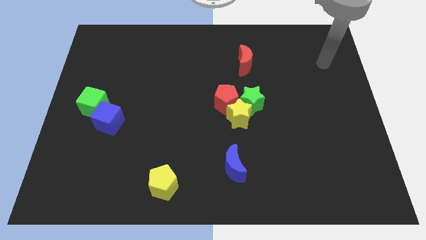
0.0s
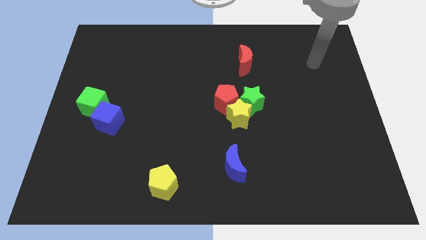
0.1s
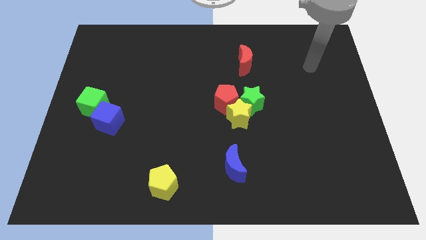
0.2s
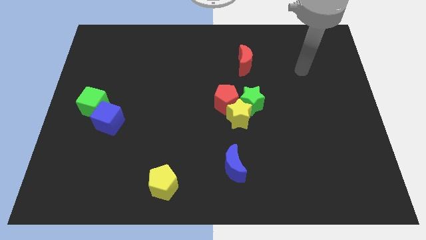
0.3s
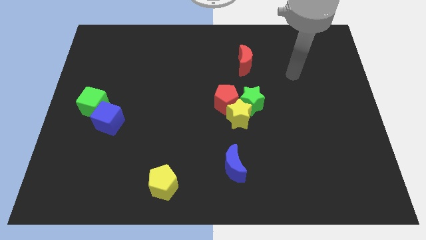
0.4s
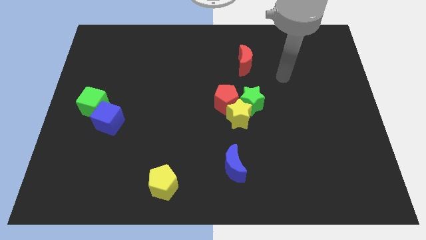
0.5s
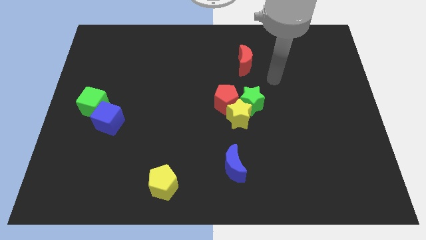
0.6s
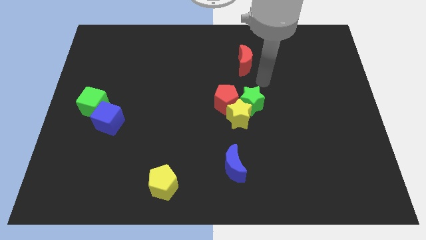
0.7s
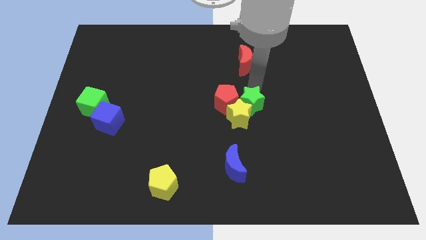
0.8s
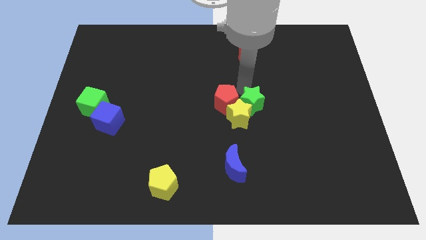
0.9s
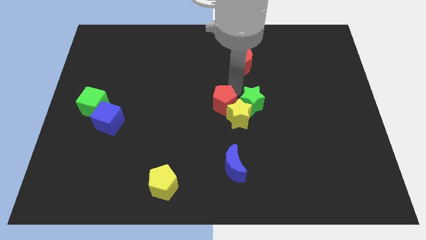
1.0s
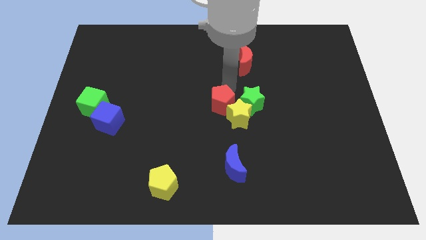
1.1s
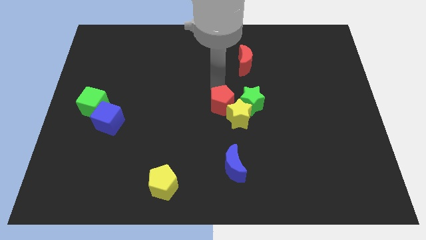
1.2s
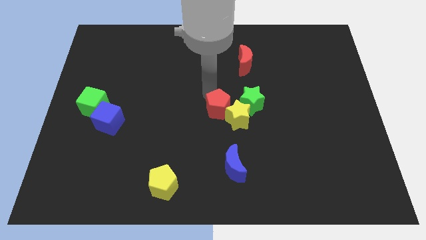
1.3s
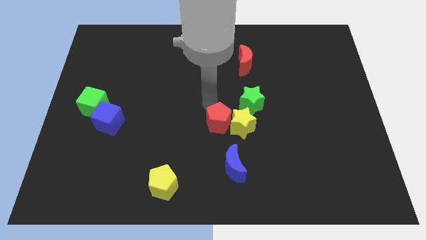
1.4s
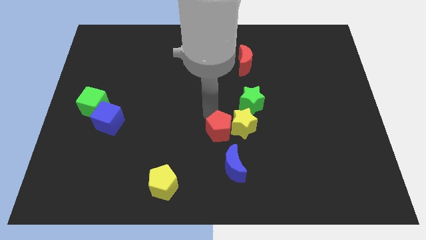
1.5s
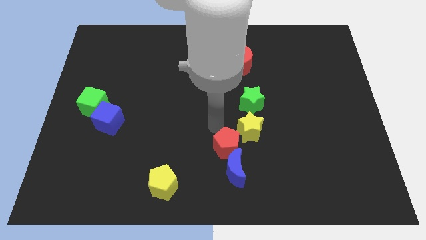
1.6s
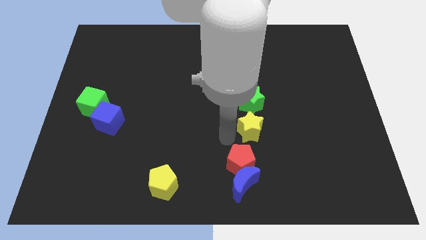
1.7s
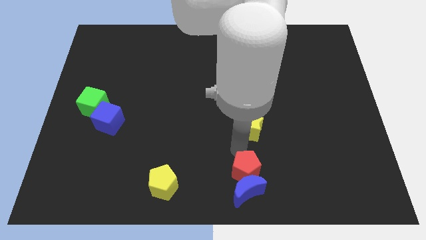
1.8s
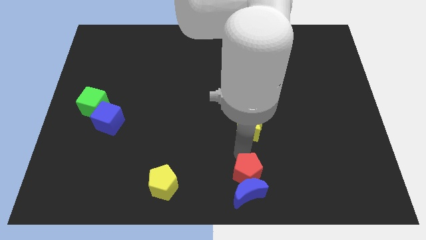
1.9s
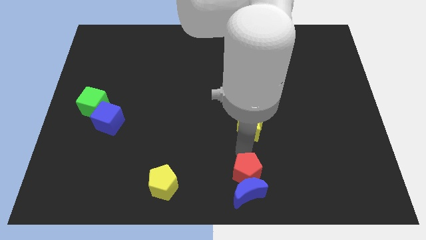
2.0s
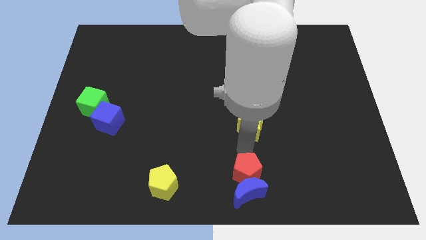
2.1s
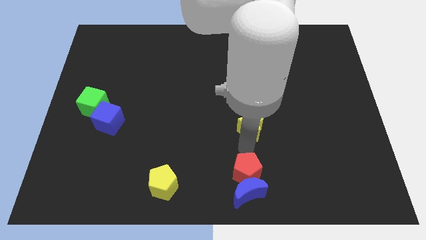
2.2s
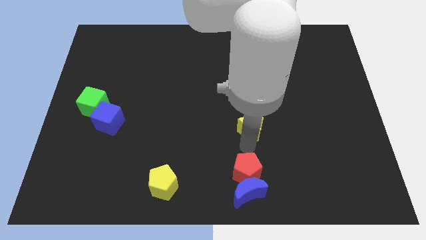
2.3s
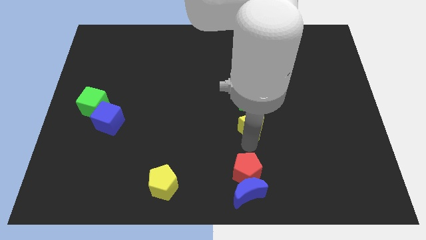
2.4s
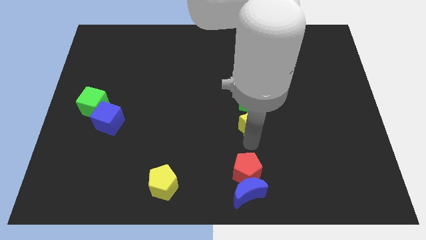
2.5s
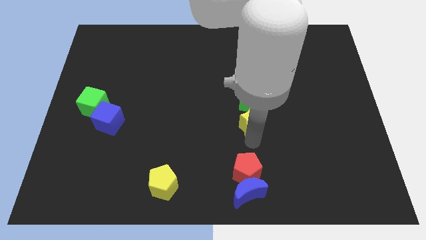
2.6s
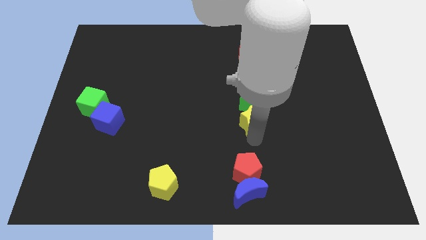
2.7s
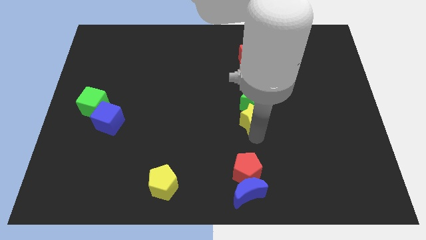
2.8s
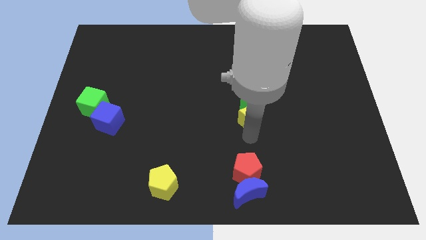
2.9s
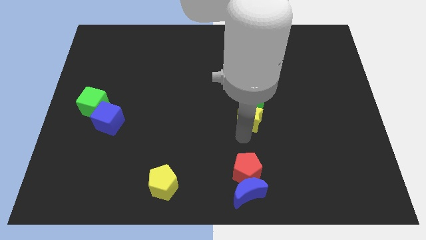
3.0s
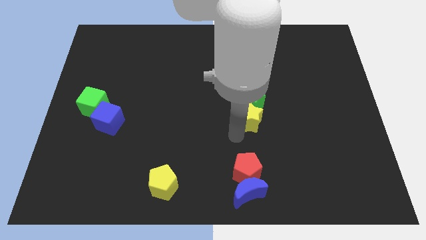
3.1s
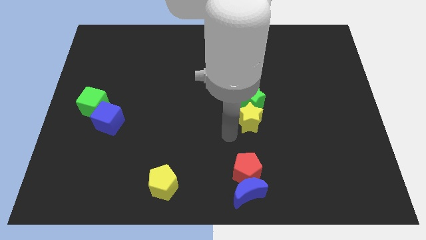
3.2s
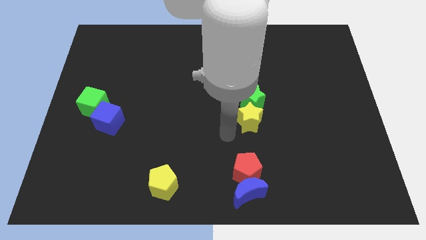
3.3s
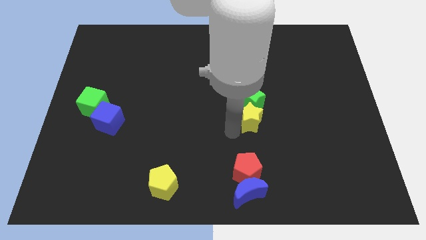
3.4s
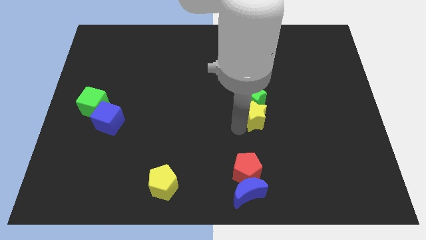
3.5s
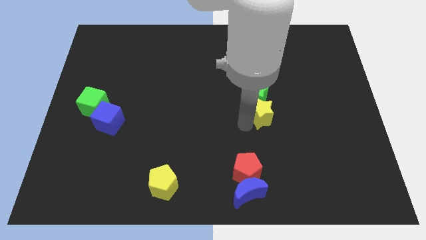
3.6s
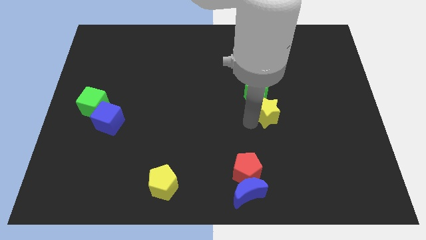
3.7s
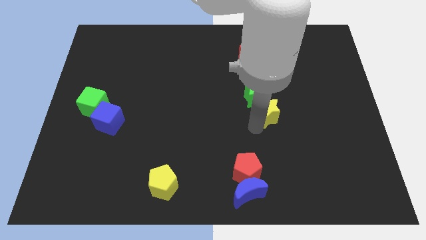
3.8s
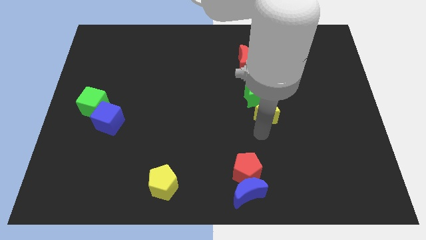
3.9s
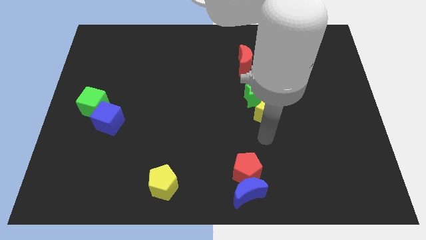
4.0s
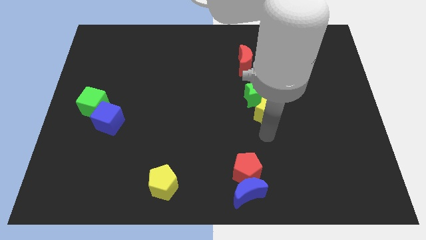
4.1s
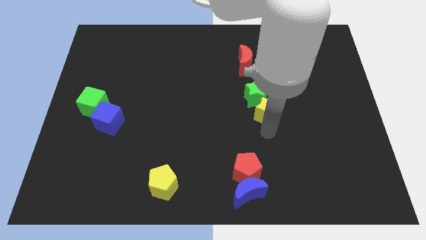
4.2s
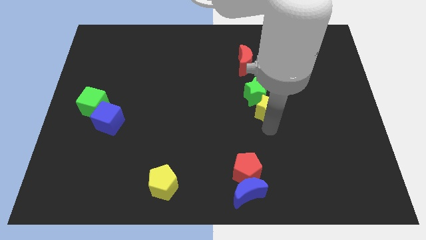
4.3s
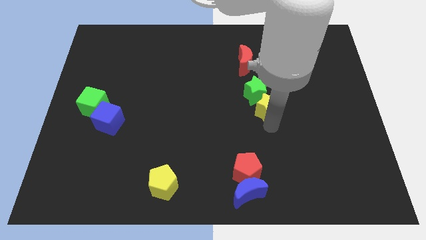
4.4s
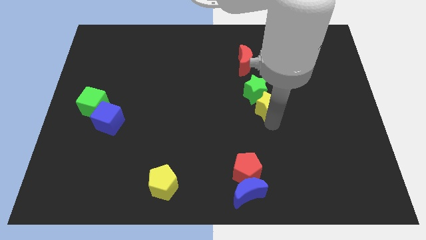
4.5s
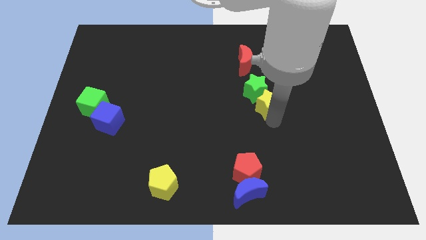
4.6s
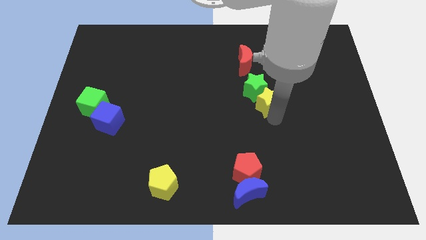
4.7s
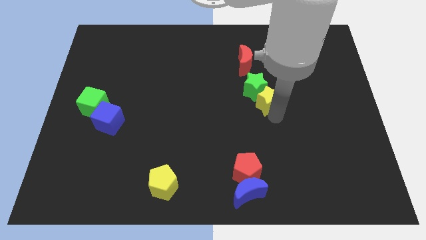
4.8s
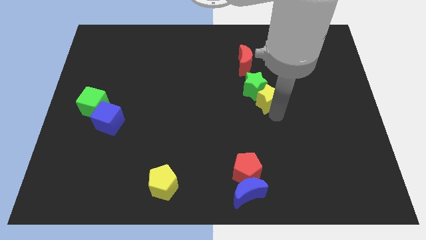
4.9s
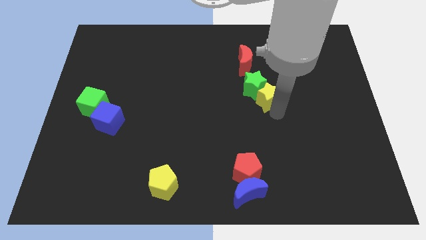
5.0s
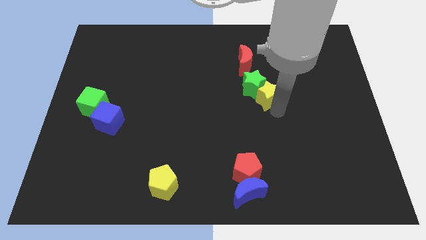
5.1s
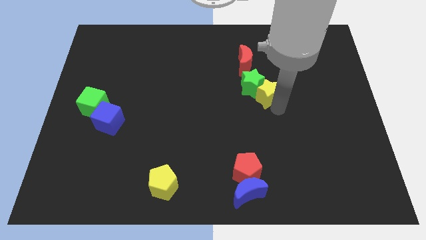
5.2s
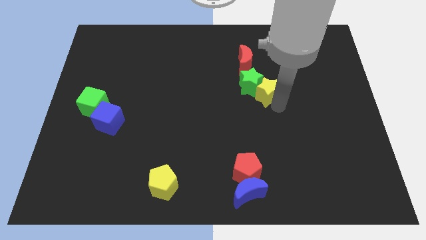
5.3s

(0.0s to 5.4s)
push the yellow star to the bottom right of the red moon

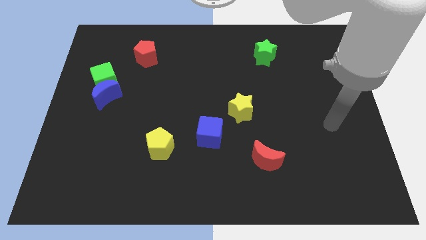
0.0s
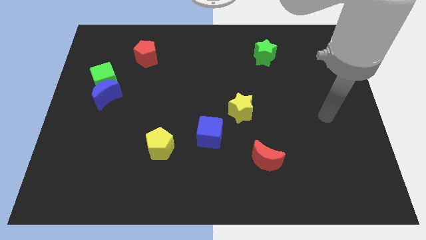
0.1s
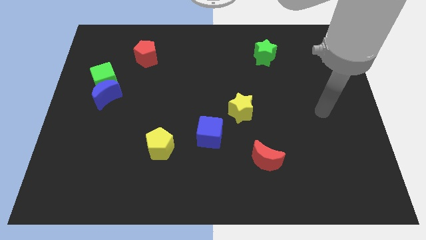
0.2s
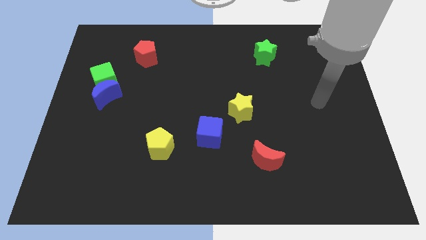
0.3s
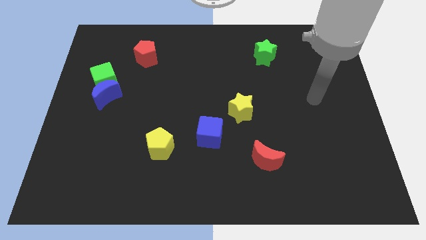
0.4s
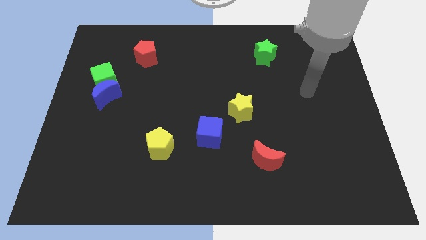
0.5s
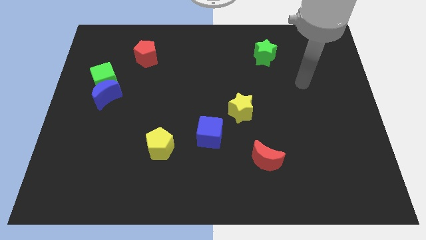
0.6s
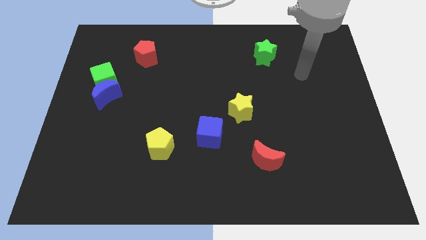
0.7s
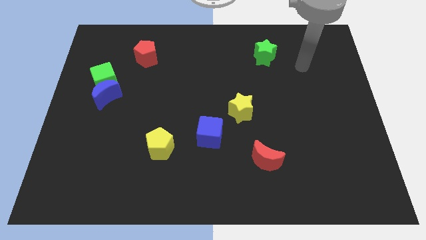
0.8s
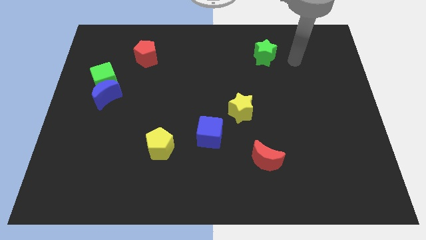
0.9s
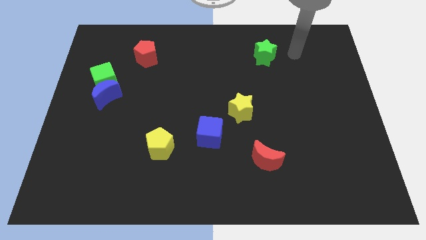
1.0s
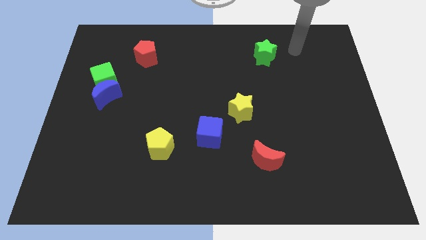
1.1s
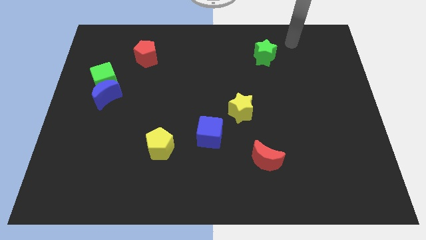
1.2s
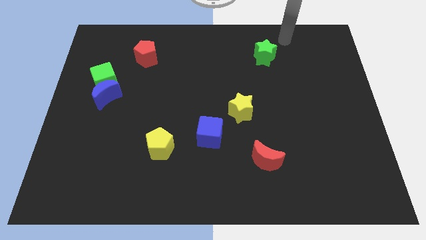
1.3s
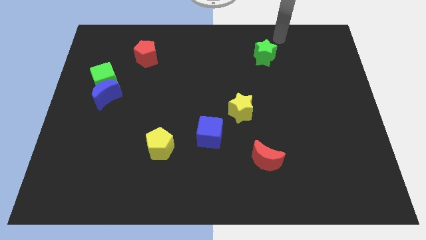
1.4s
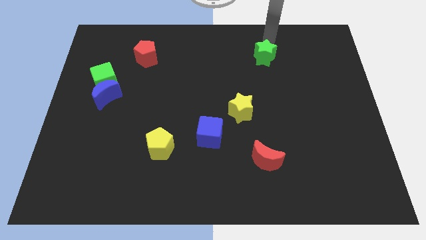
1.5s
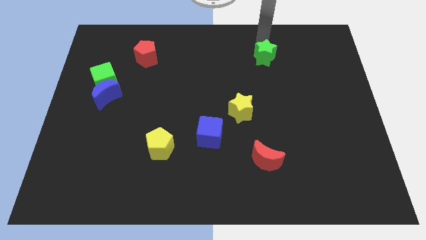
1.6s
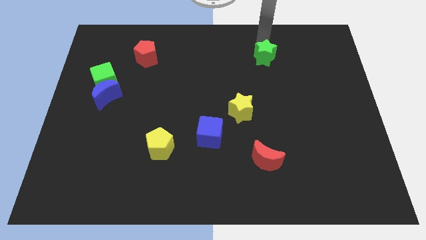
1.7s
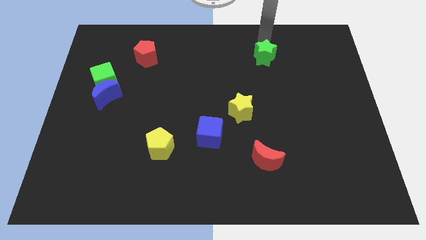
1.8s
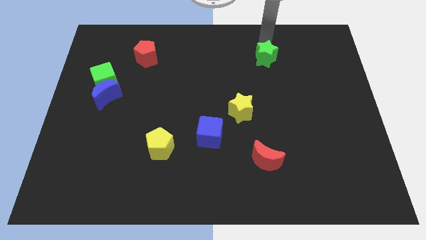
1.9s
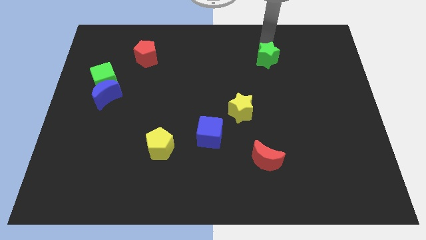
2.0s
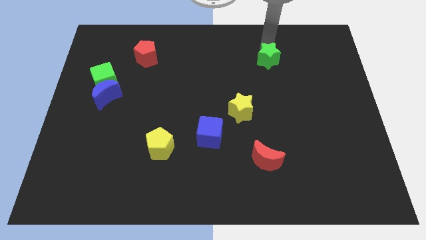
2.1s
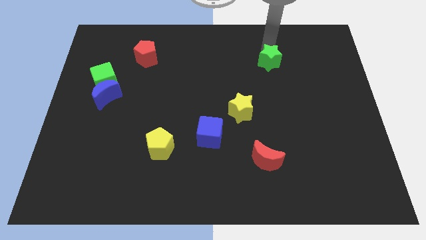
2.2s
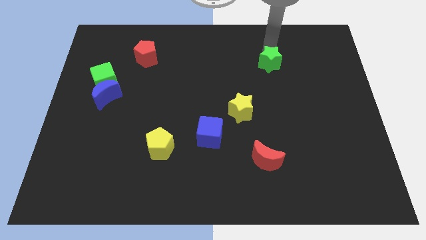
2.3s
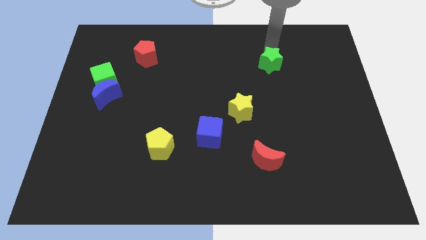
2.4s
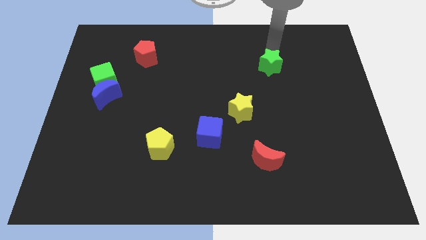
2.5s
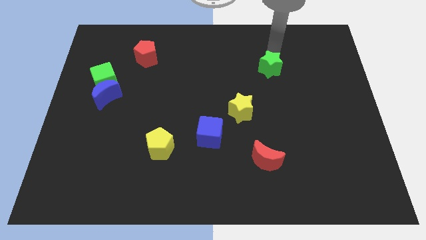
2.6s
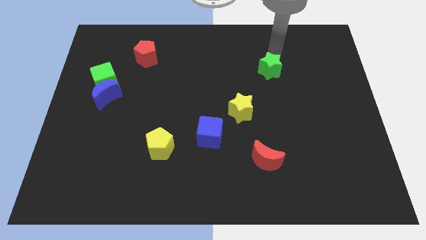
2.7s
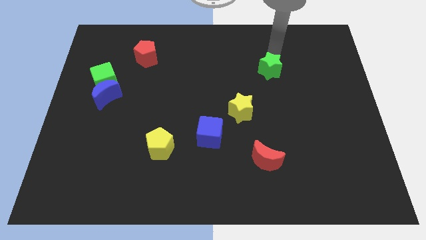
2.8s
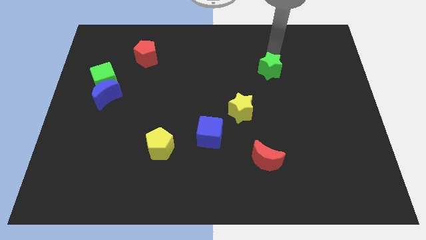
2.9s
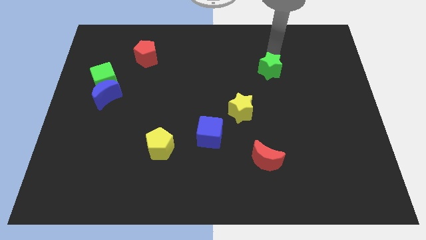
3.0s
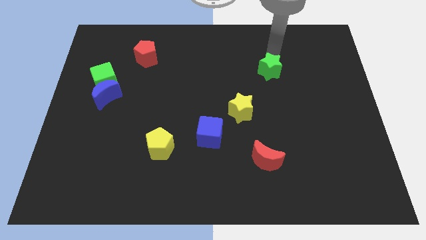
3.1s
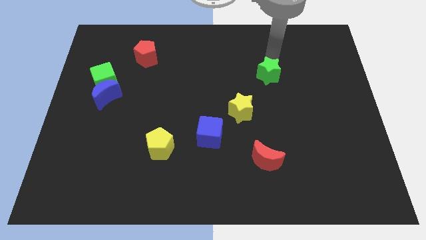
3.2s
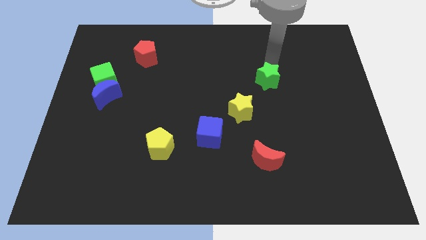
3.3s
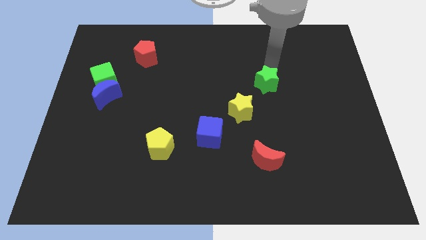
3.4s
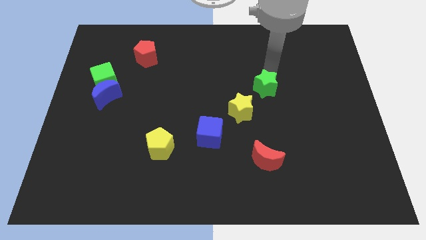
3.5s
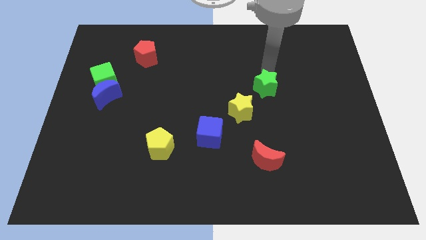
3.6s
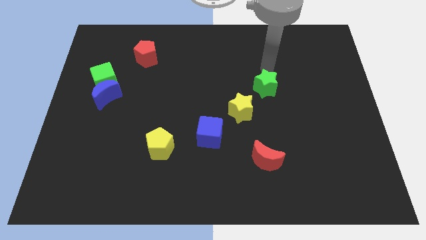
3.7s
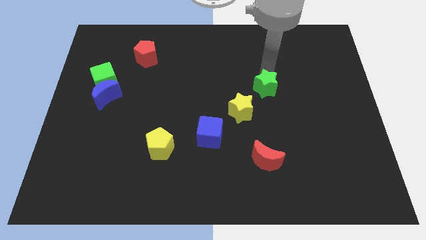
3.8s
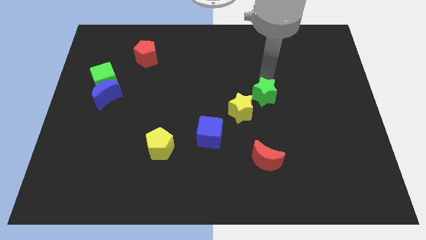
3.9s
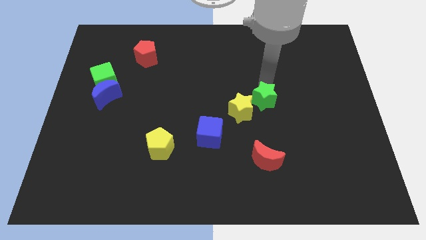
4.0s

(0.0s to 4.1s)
put the green star to the top of the red moon
